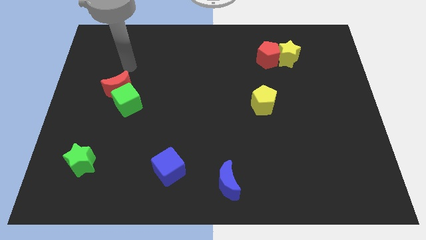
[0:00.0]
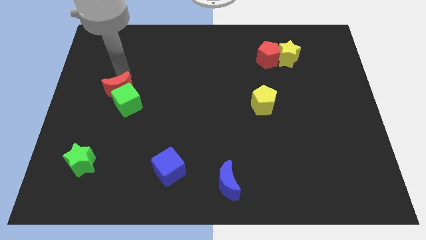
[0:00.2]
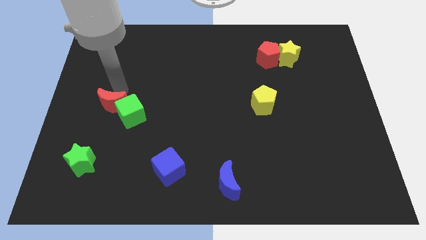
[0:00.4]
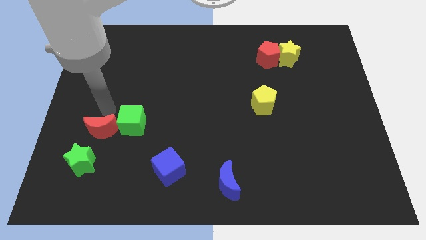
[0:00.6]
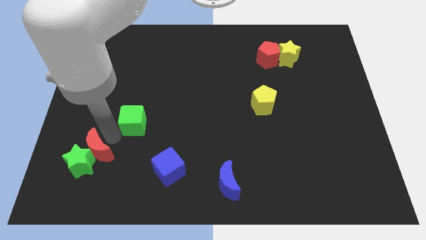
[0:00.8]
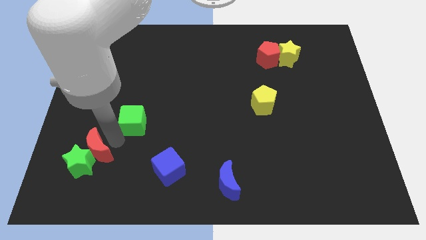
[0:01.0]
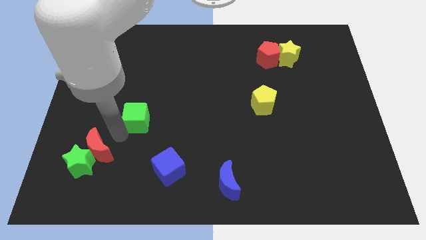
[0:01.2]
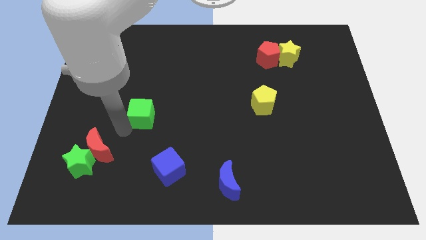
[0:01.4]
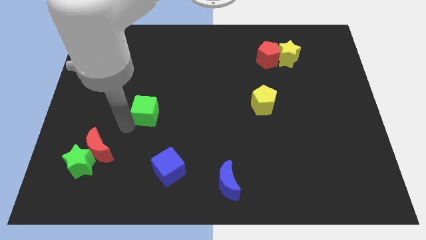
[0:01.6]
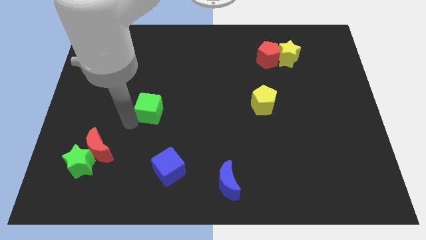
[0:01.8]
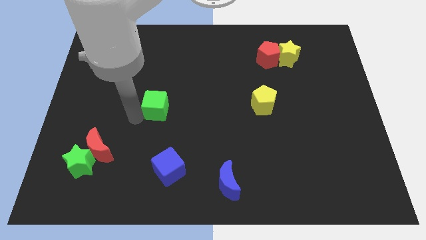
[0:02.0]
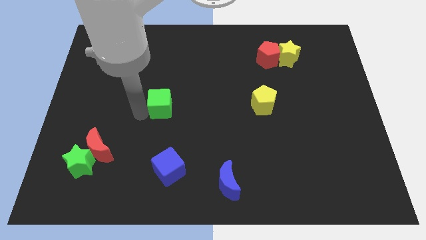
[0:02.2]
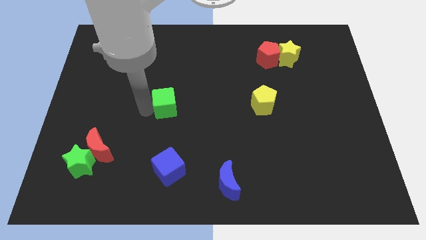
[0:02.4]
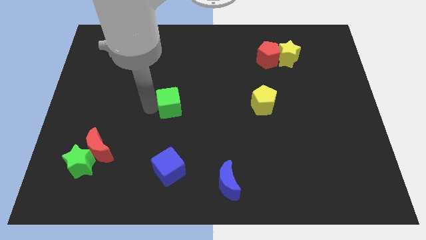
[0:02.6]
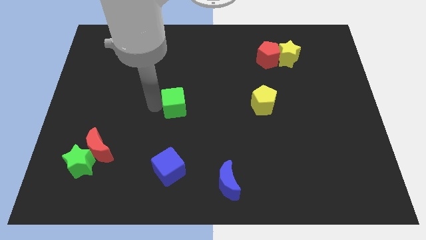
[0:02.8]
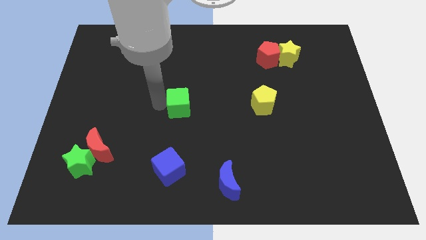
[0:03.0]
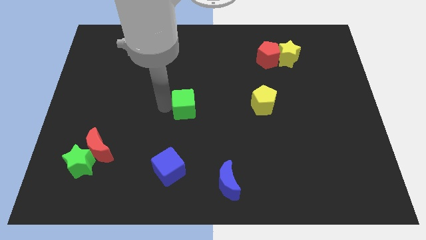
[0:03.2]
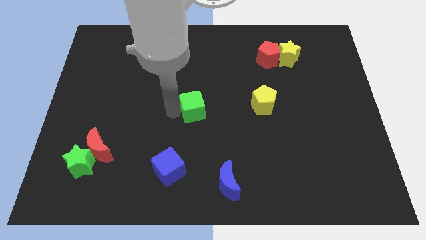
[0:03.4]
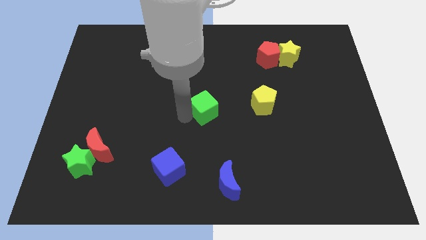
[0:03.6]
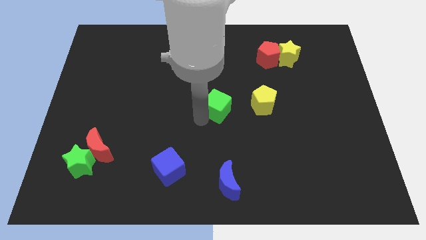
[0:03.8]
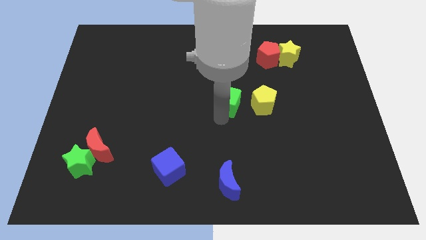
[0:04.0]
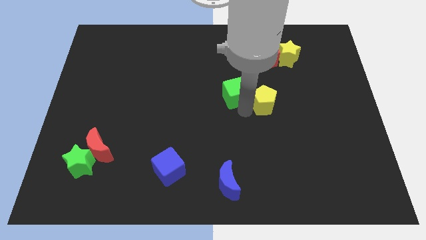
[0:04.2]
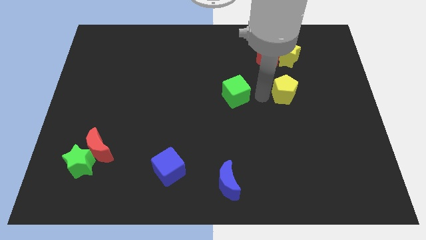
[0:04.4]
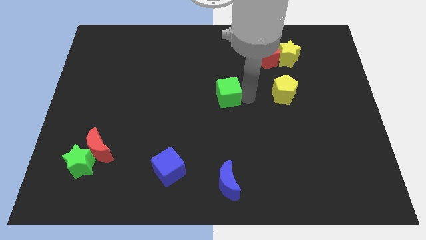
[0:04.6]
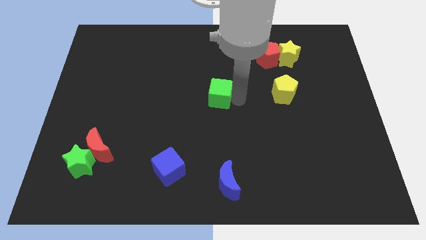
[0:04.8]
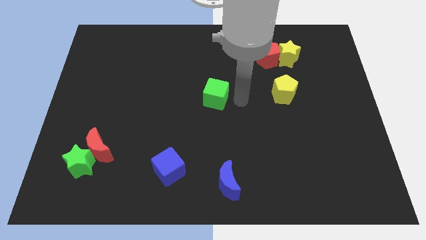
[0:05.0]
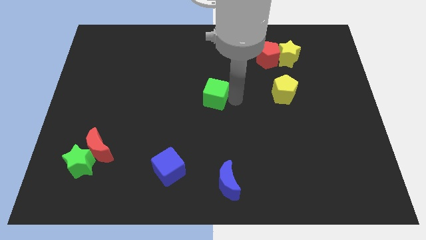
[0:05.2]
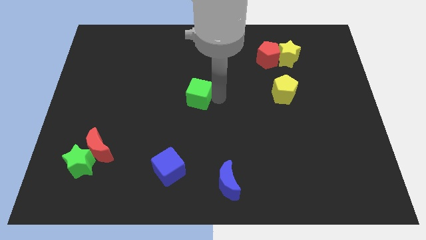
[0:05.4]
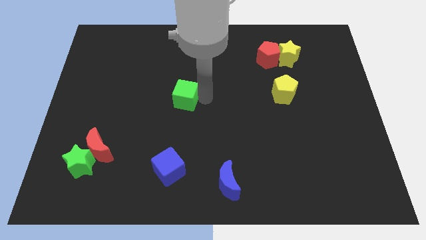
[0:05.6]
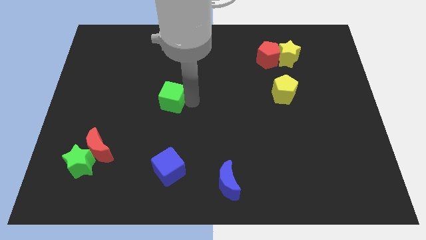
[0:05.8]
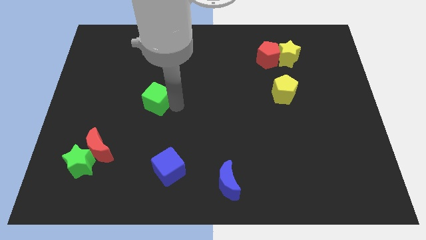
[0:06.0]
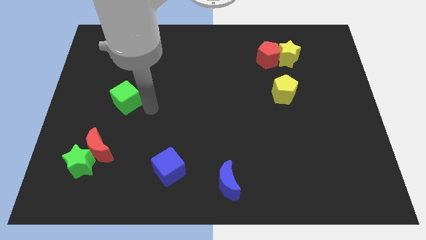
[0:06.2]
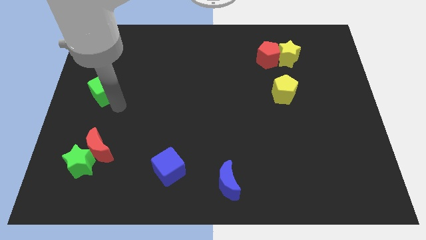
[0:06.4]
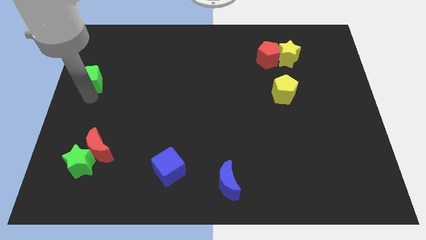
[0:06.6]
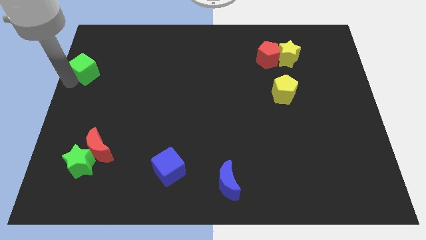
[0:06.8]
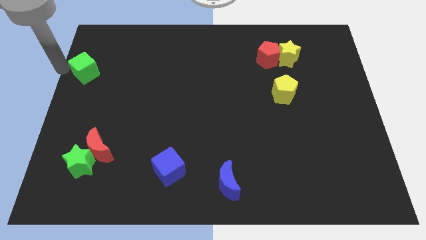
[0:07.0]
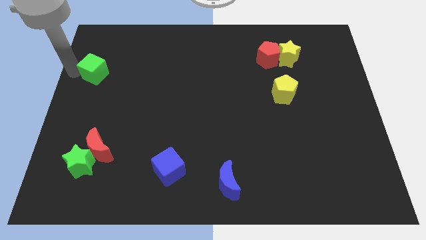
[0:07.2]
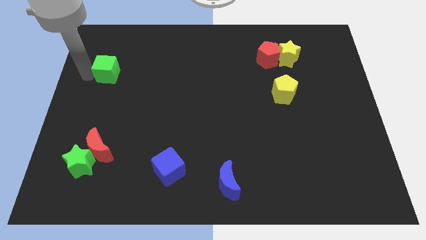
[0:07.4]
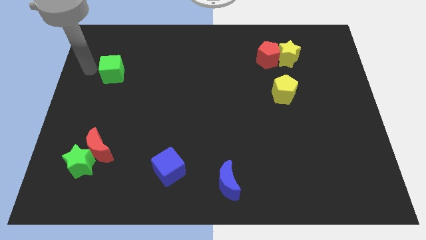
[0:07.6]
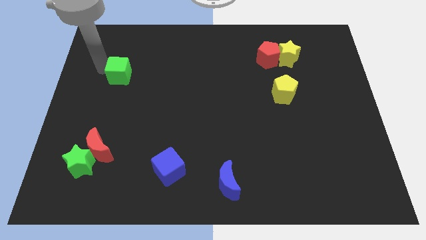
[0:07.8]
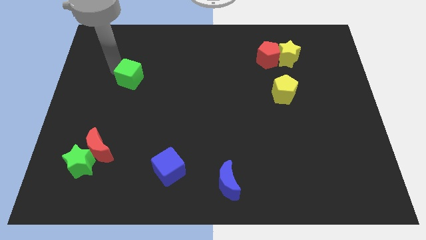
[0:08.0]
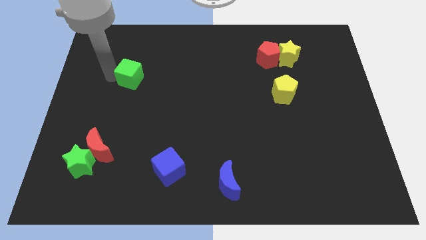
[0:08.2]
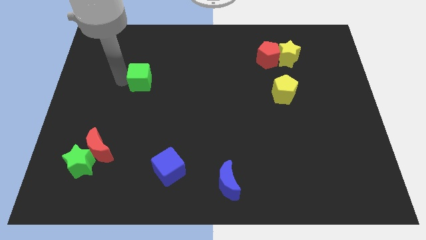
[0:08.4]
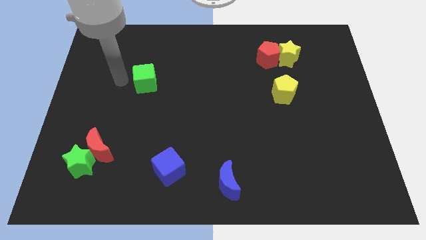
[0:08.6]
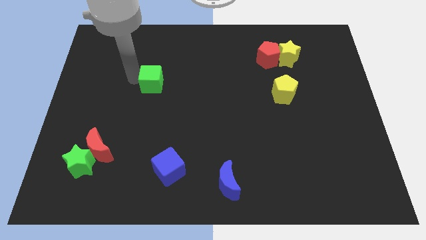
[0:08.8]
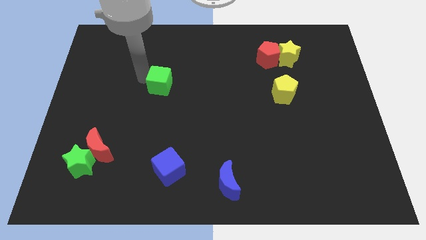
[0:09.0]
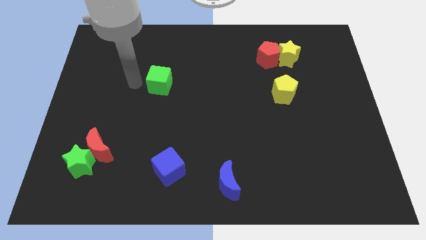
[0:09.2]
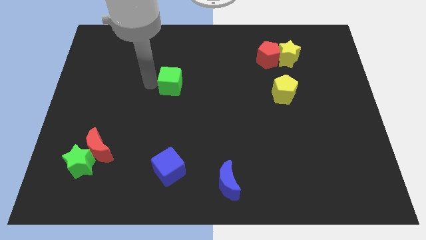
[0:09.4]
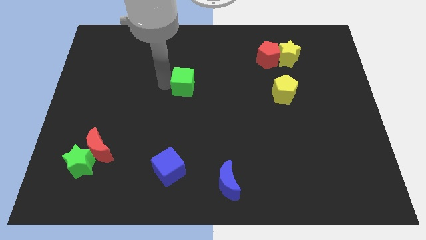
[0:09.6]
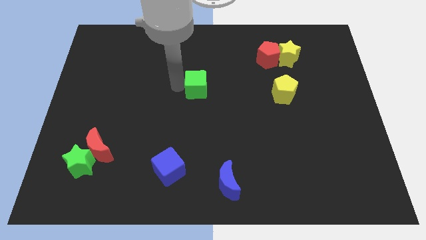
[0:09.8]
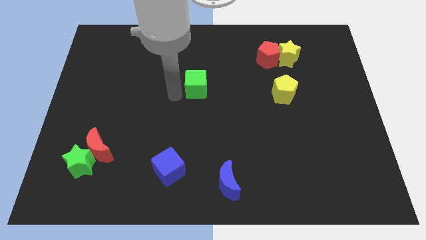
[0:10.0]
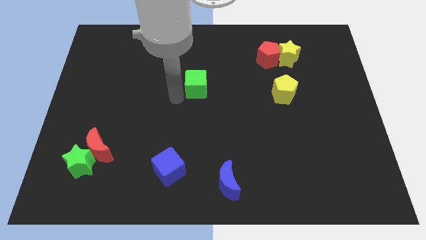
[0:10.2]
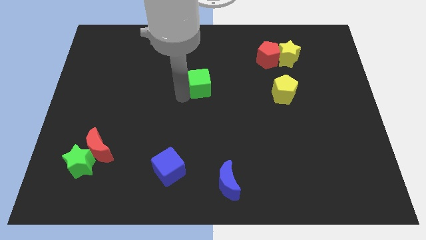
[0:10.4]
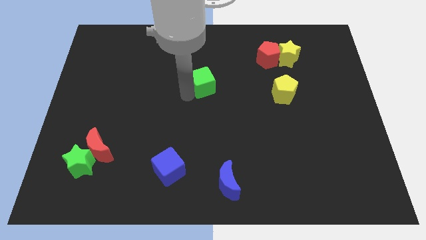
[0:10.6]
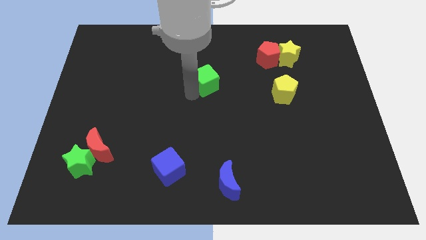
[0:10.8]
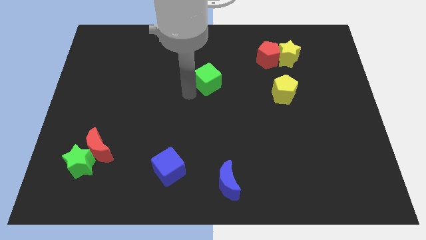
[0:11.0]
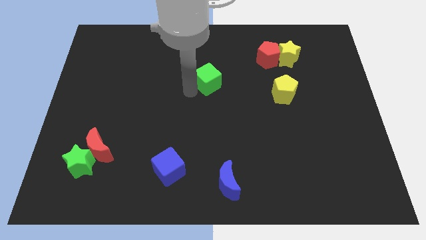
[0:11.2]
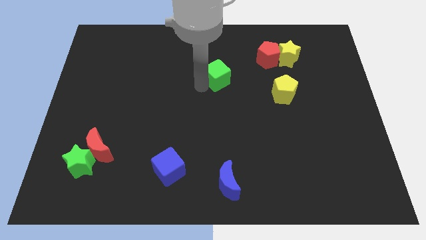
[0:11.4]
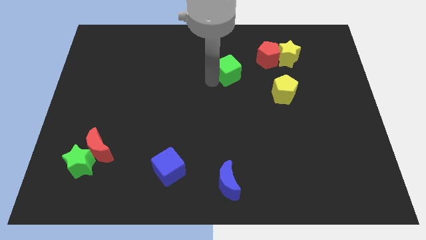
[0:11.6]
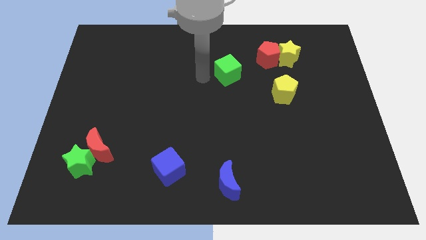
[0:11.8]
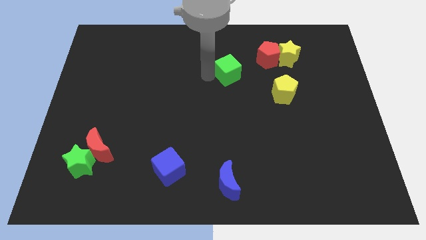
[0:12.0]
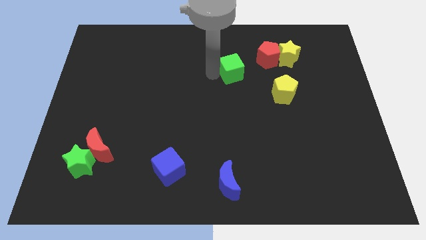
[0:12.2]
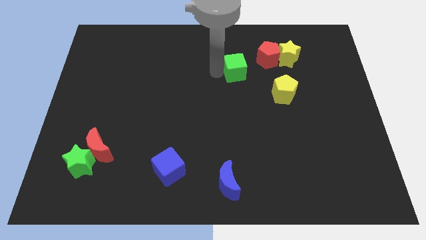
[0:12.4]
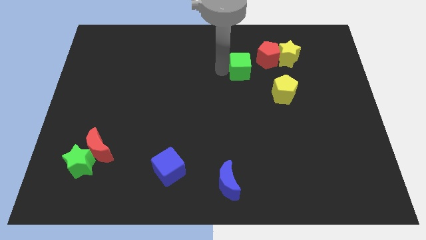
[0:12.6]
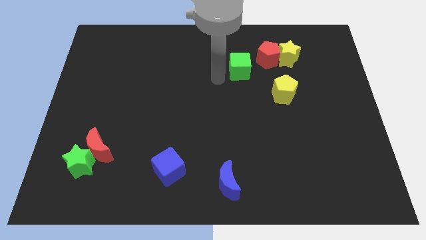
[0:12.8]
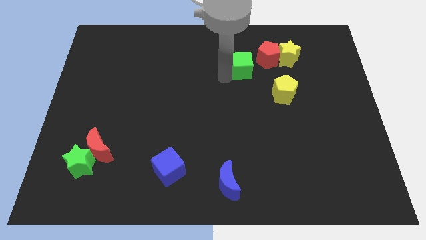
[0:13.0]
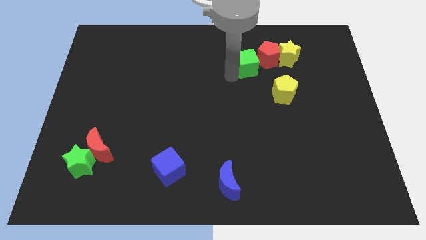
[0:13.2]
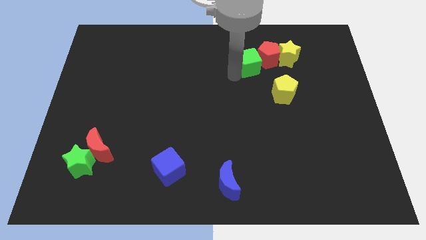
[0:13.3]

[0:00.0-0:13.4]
push the green cube next to the red pentagon

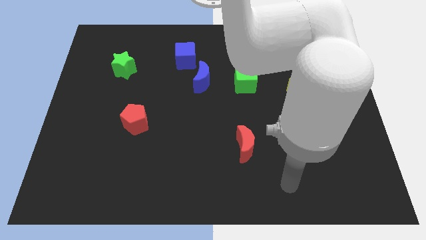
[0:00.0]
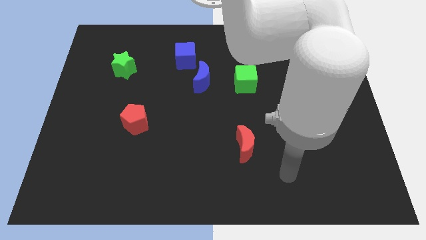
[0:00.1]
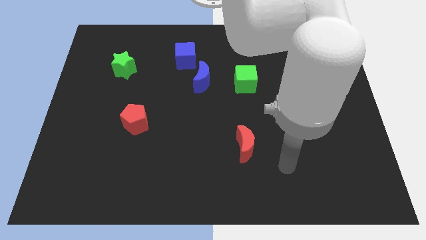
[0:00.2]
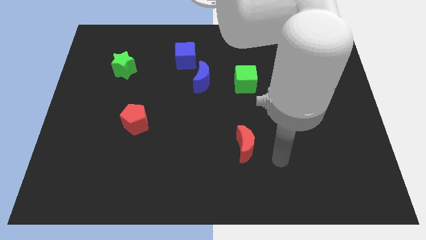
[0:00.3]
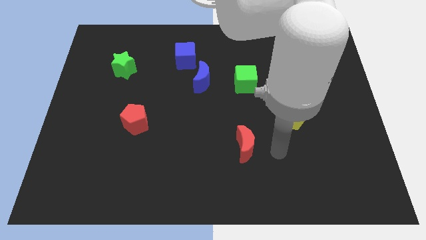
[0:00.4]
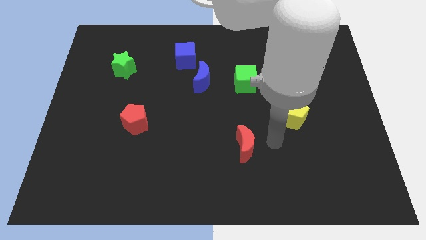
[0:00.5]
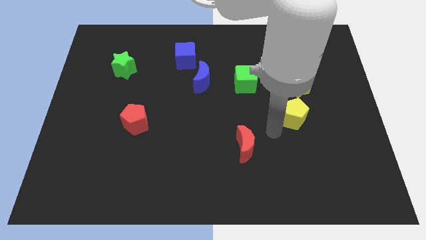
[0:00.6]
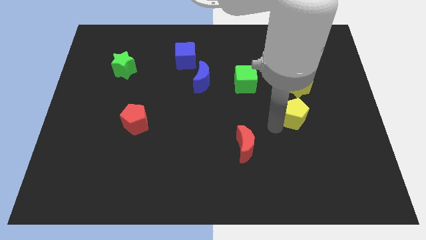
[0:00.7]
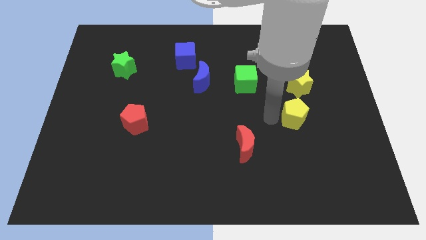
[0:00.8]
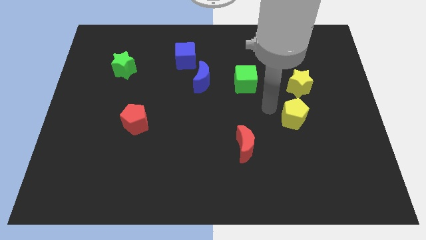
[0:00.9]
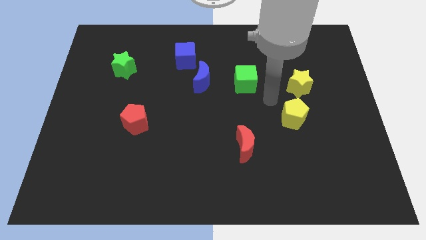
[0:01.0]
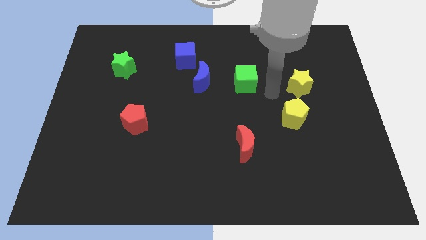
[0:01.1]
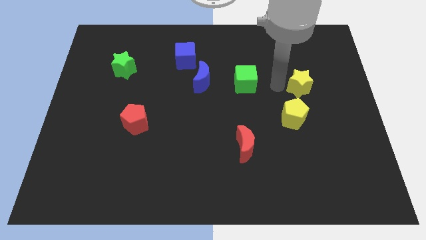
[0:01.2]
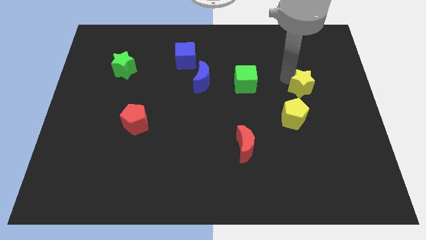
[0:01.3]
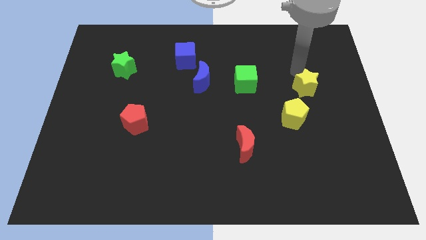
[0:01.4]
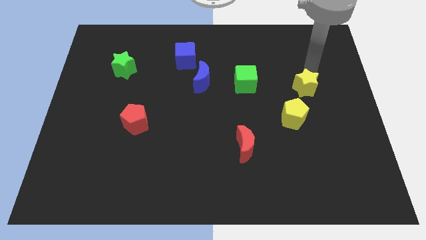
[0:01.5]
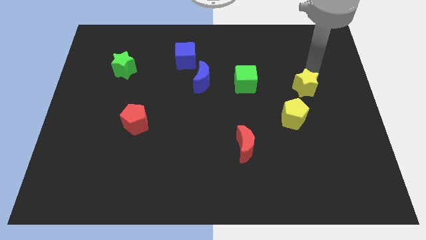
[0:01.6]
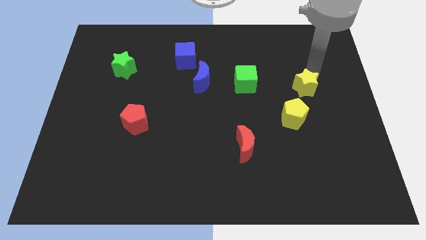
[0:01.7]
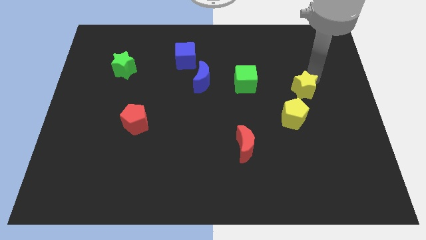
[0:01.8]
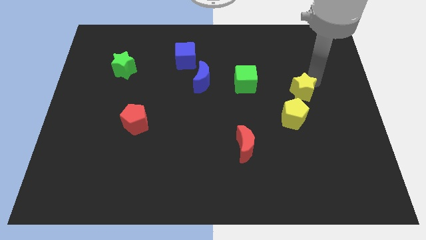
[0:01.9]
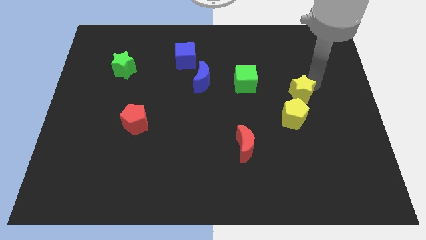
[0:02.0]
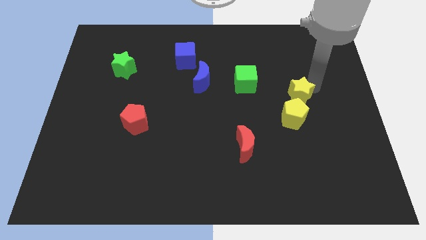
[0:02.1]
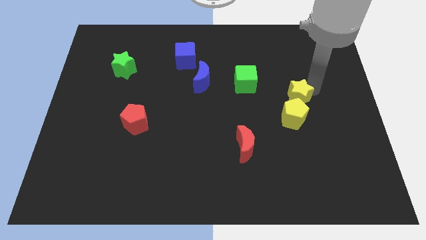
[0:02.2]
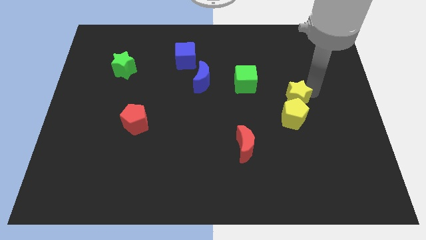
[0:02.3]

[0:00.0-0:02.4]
push the yellow star close to the yellow pentagon
